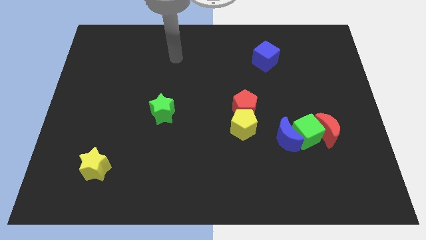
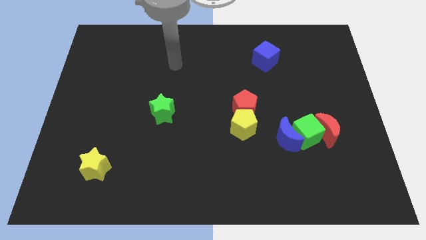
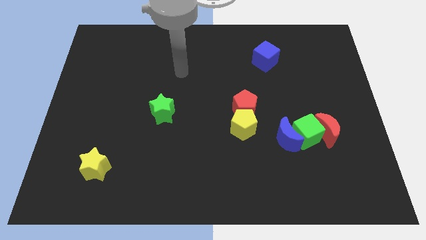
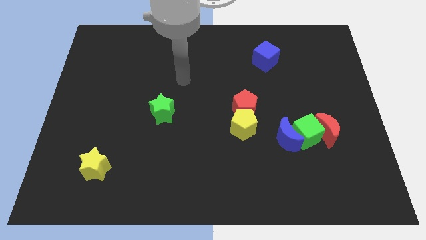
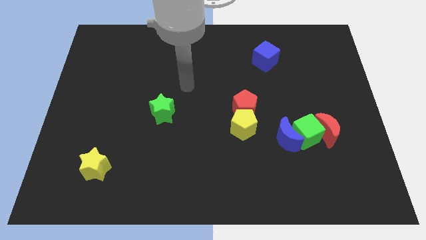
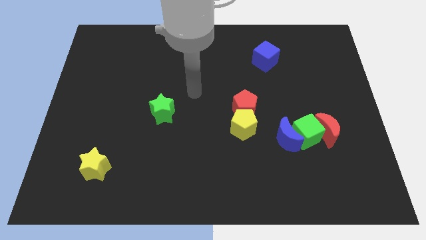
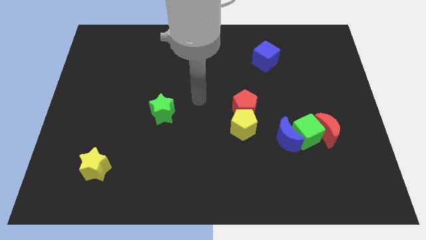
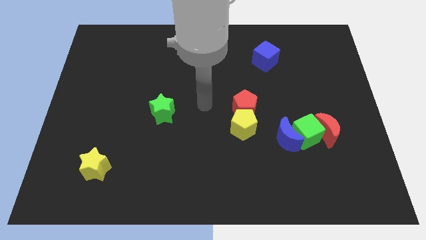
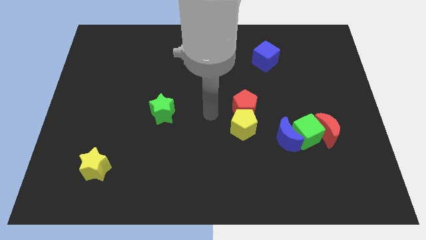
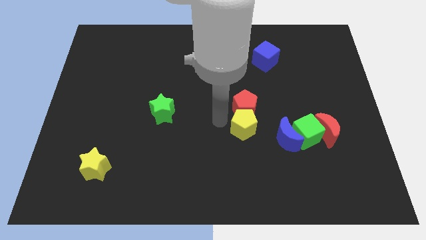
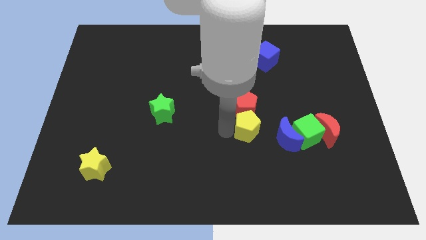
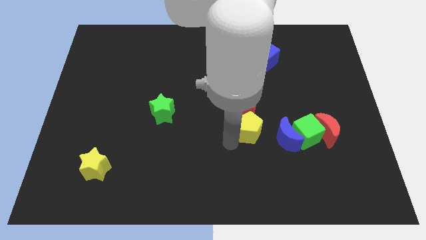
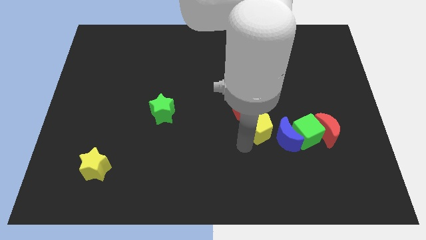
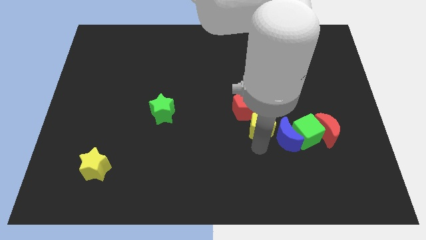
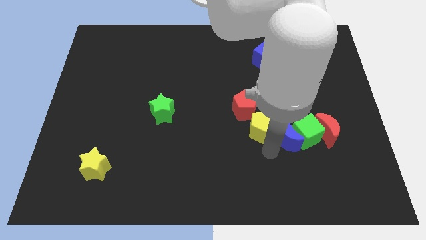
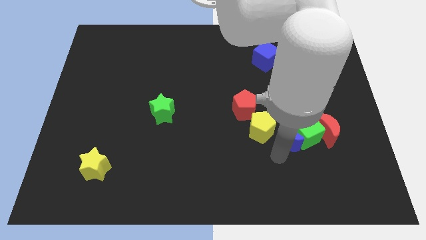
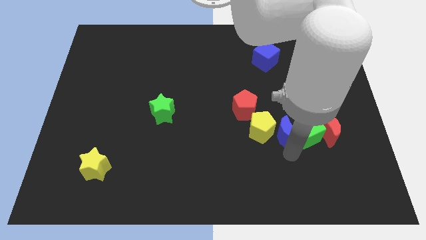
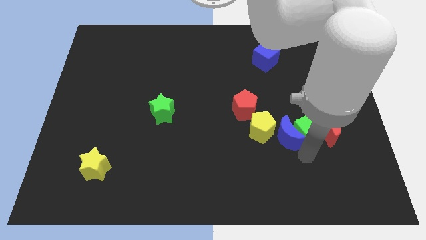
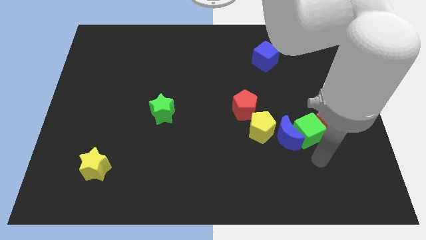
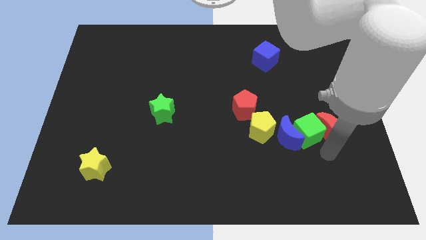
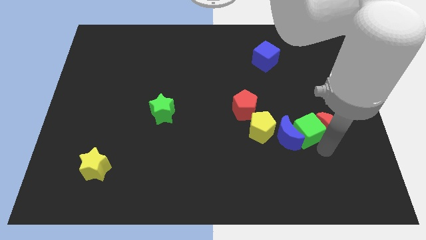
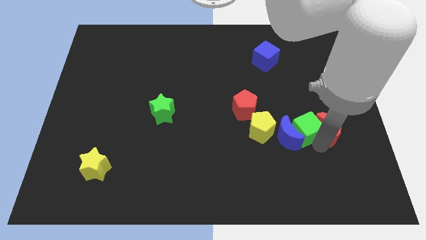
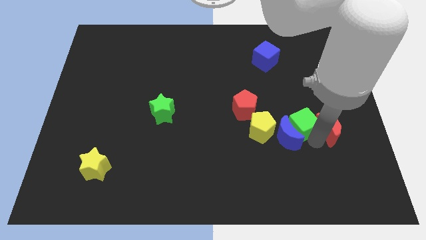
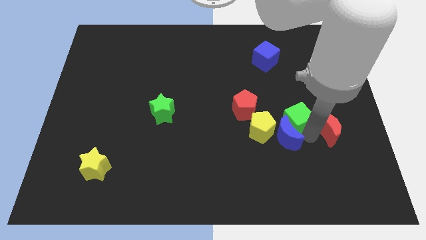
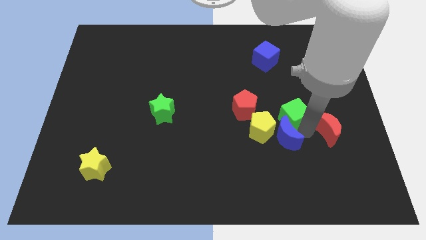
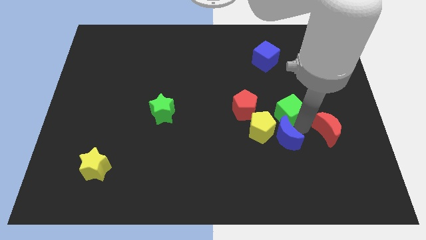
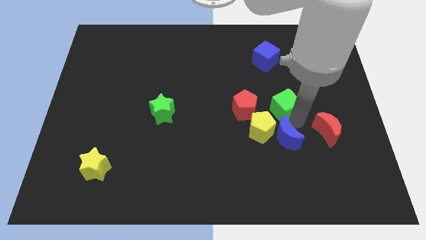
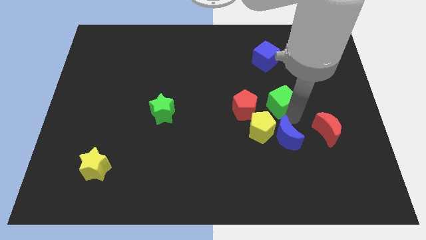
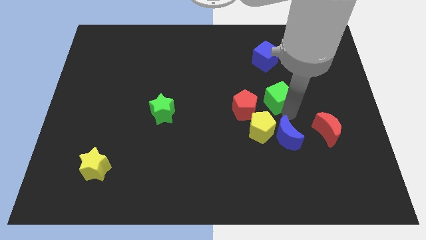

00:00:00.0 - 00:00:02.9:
move the green cube away from the blue moon and red moon

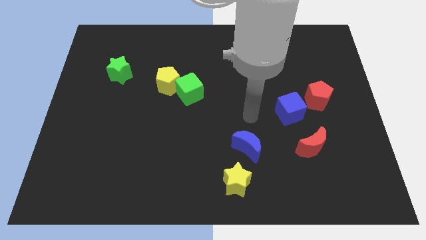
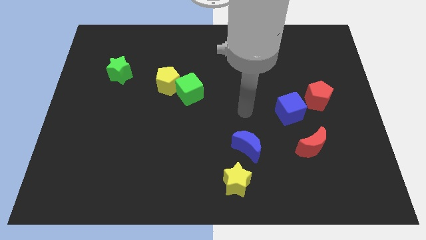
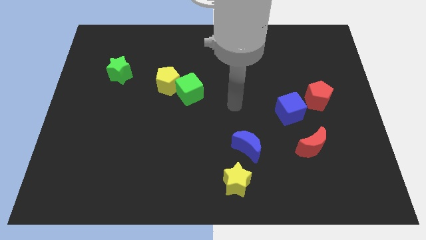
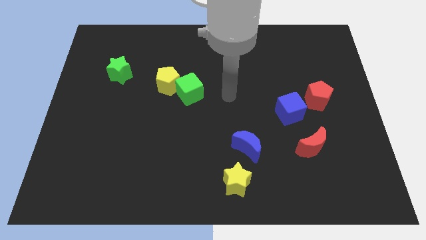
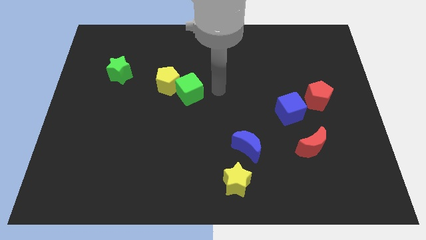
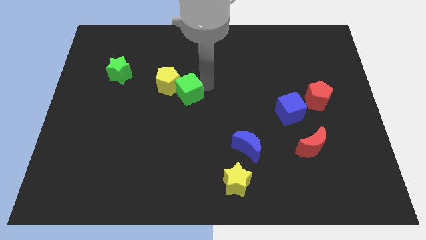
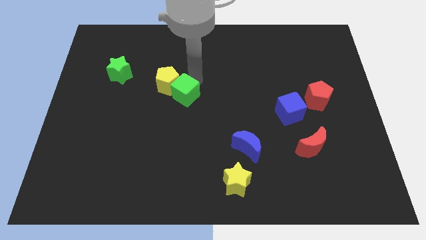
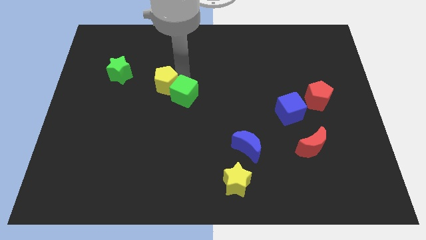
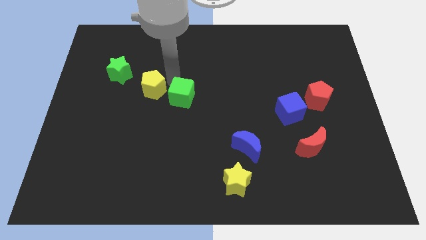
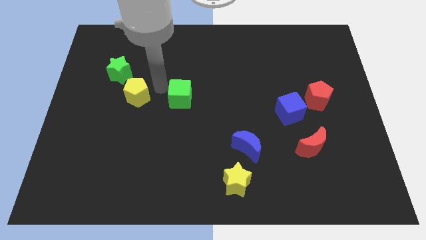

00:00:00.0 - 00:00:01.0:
separate the green cube from the yellow pentagon

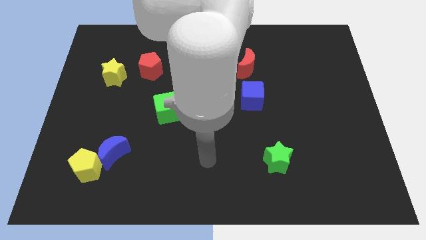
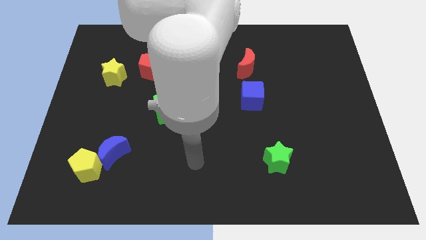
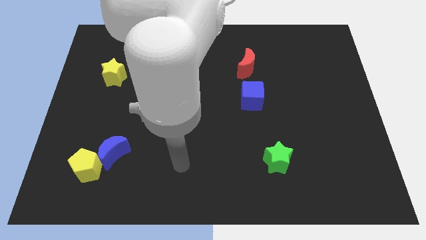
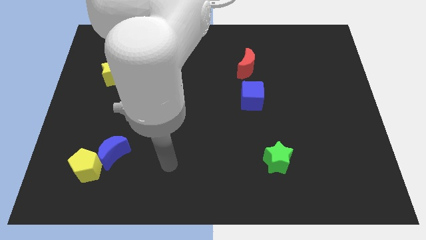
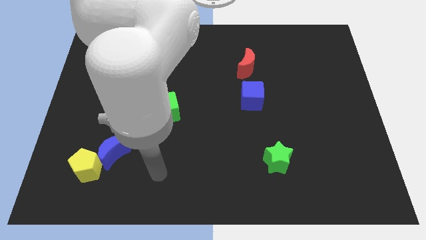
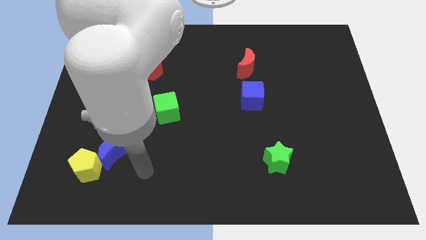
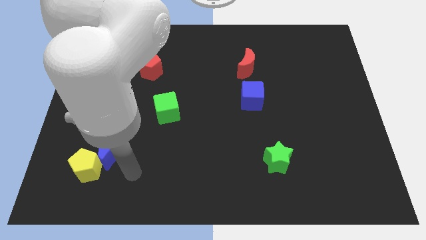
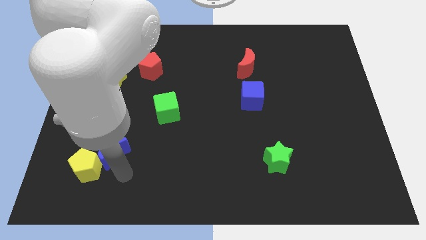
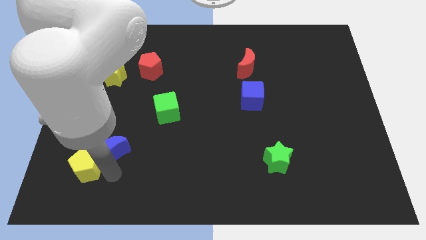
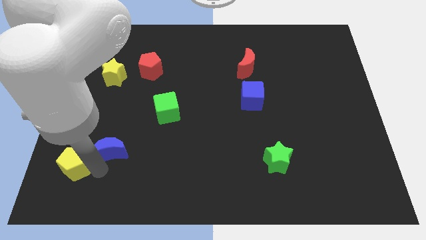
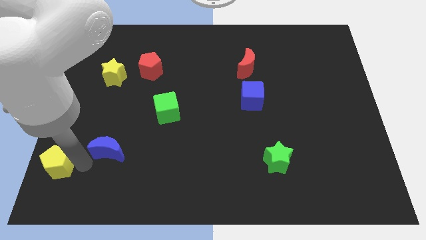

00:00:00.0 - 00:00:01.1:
move the blue moon away from the yellow pentagon

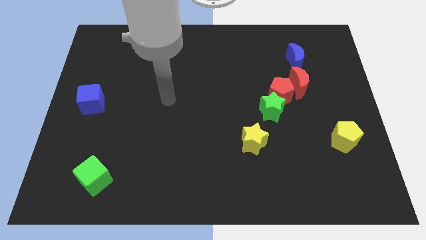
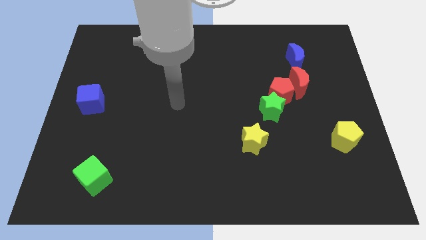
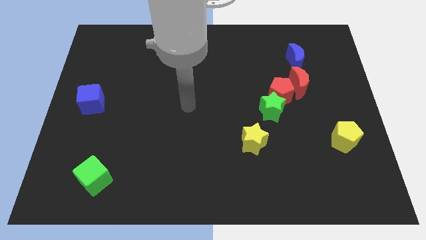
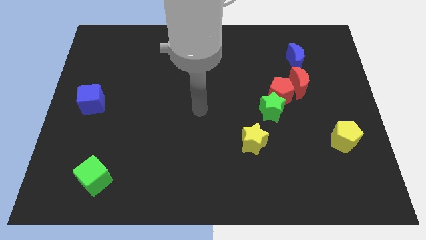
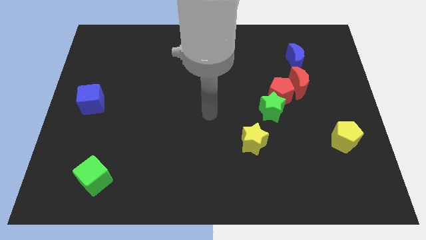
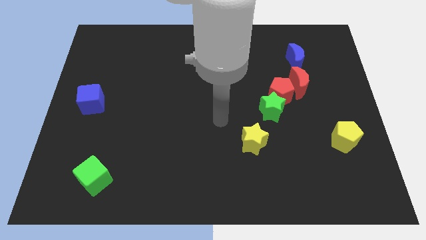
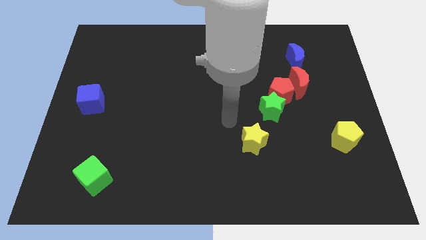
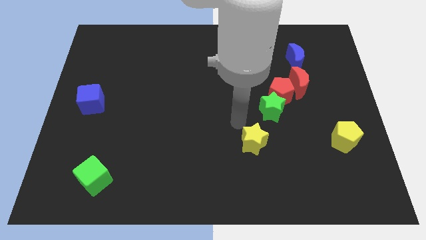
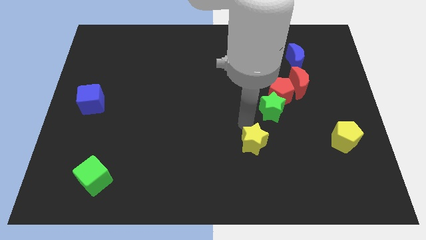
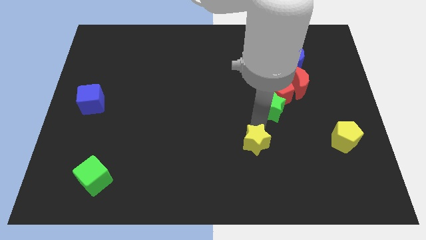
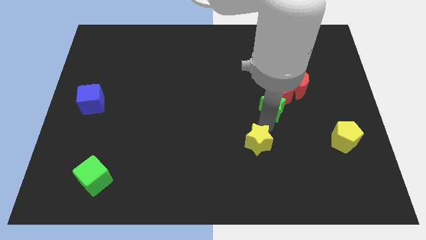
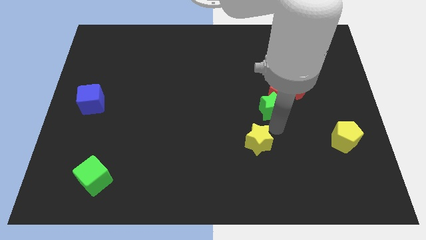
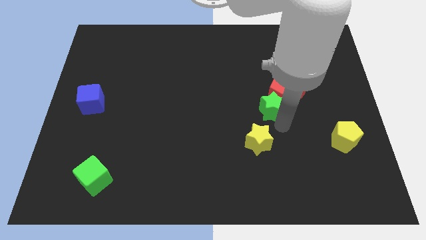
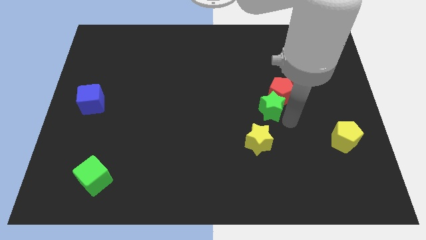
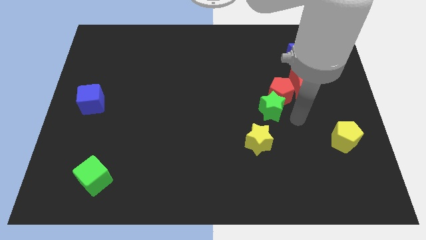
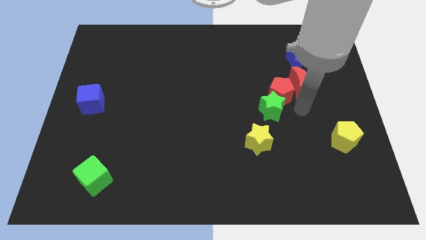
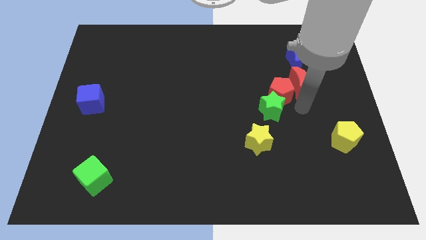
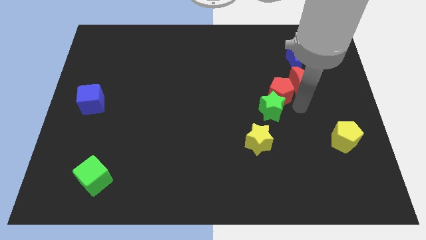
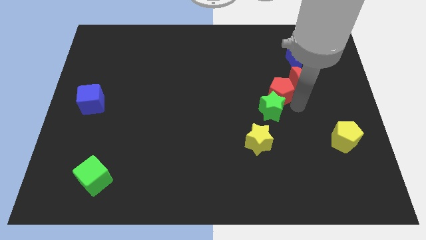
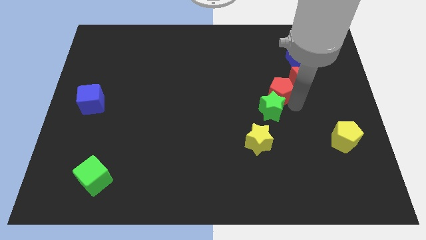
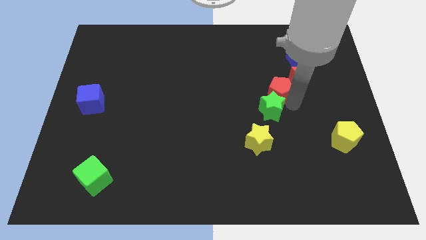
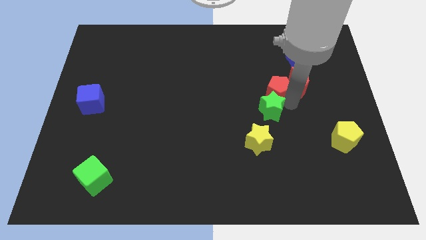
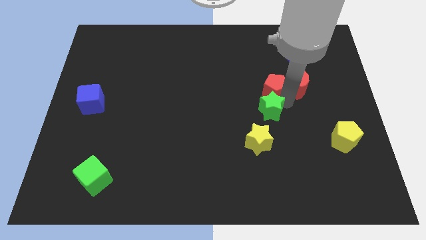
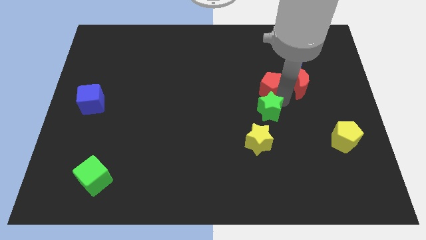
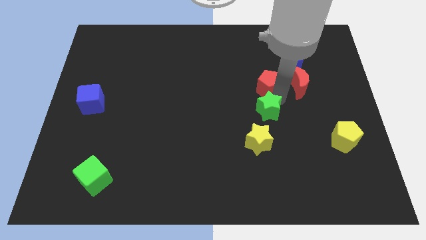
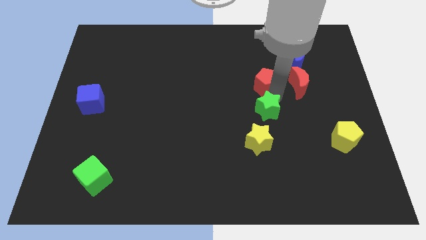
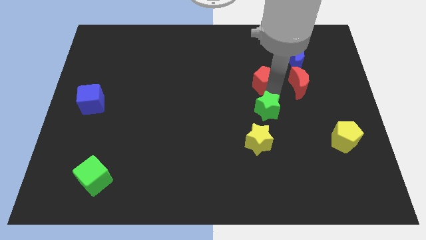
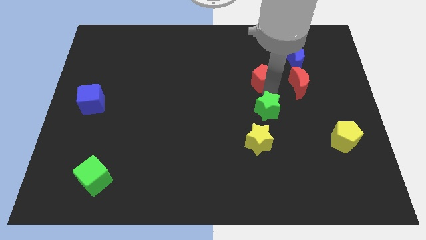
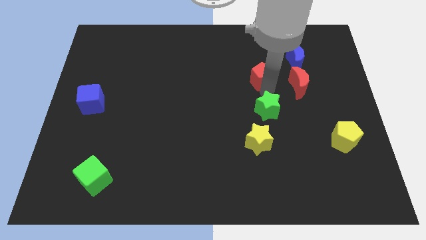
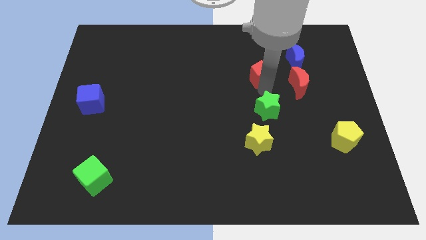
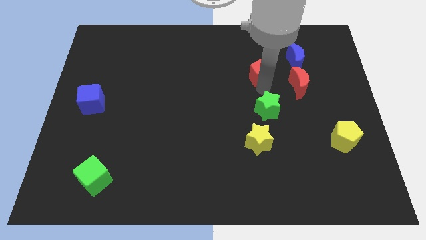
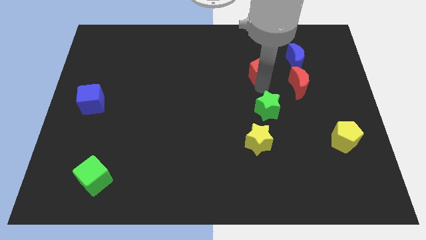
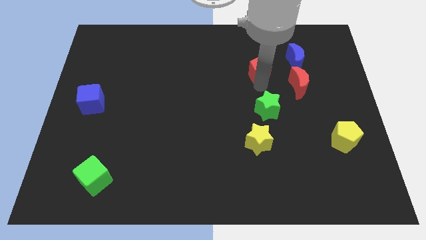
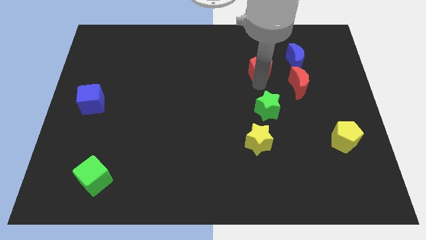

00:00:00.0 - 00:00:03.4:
pull the red pentagon apart from the green star and red moon

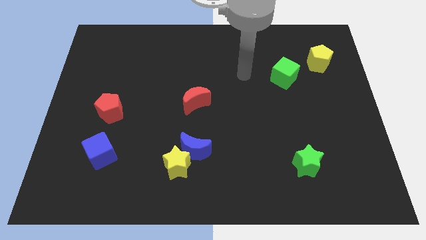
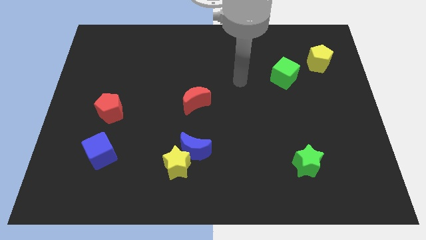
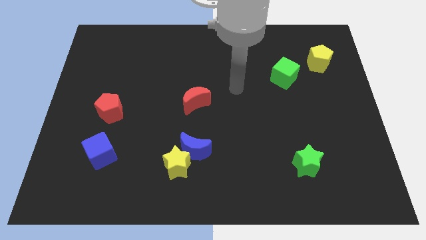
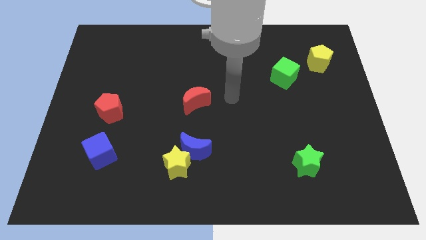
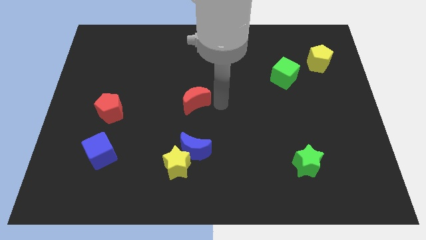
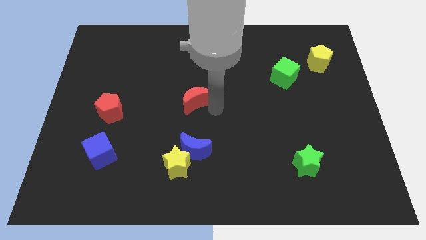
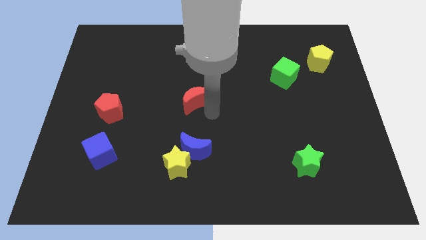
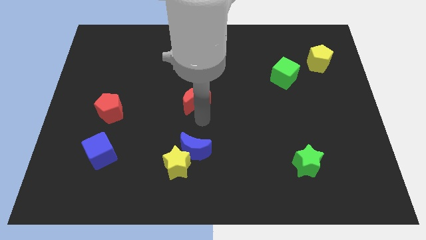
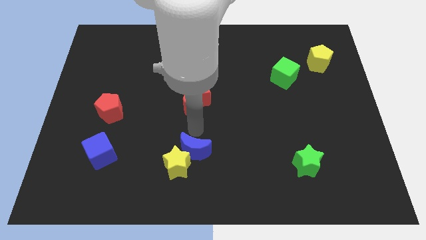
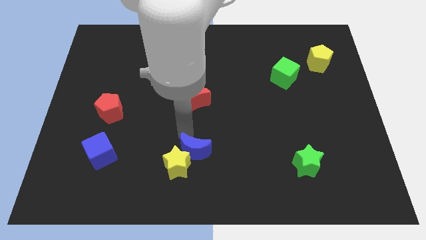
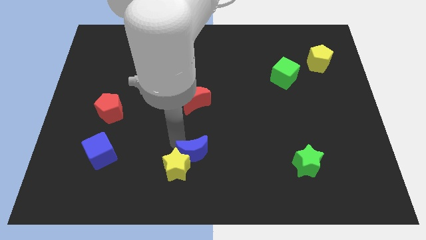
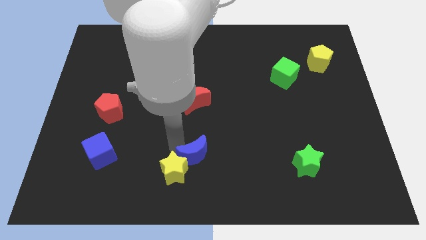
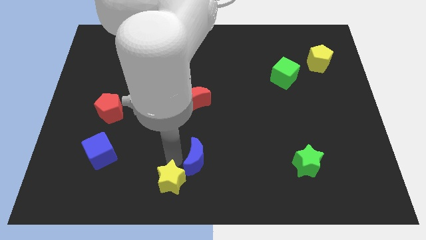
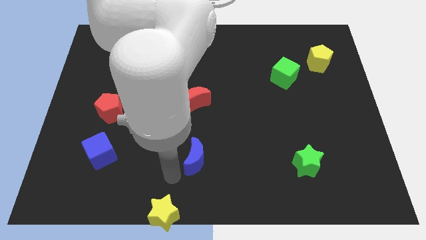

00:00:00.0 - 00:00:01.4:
separate the blue moon from the yellow star
